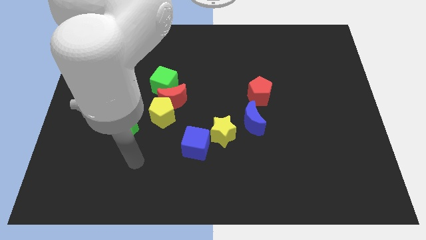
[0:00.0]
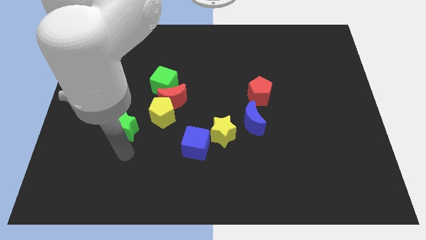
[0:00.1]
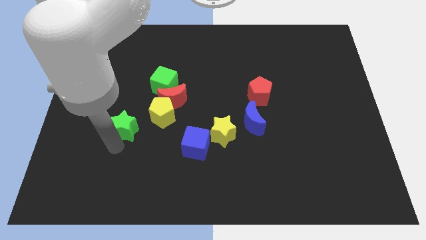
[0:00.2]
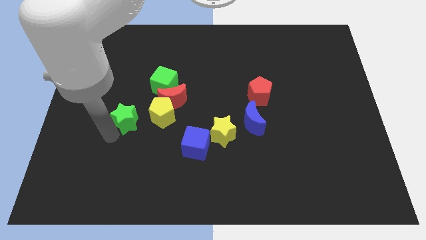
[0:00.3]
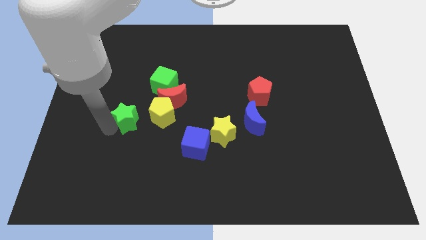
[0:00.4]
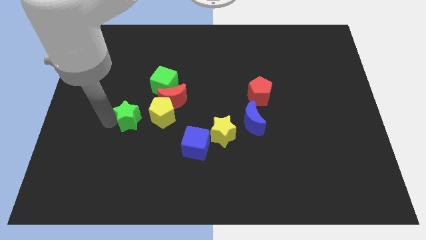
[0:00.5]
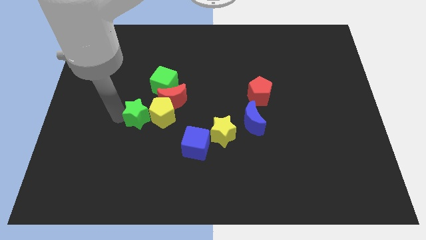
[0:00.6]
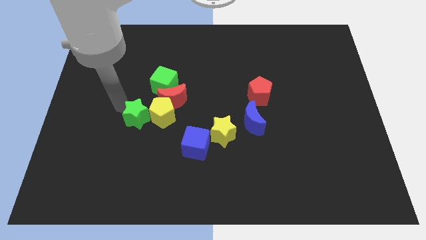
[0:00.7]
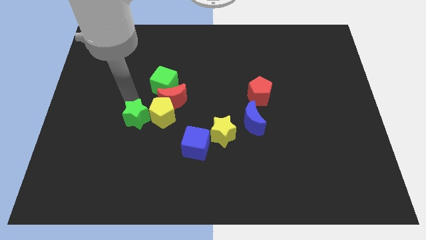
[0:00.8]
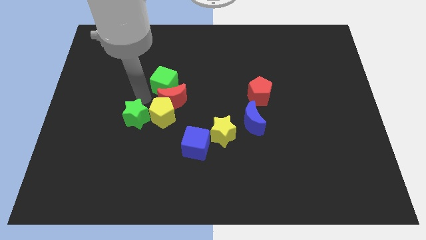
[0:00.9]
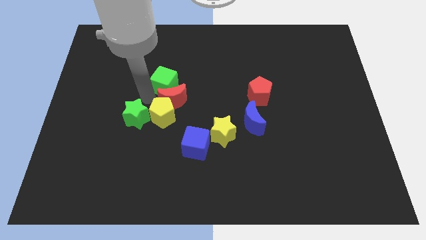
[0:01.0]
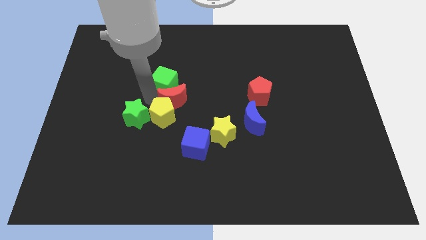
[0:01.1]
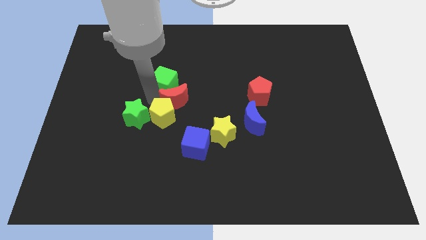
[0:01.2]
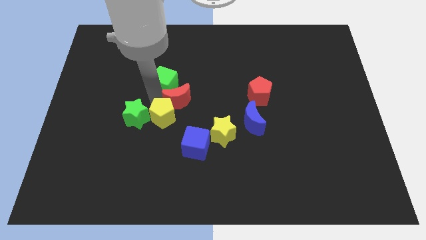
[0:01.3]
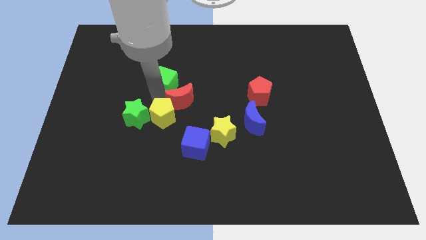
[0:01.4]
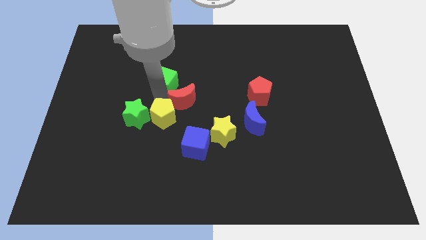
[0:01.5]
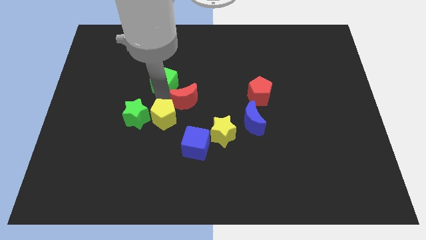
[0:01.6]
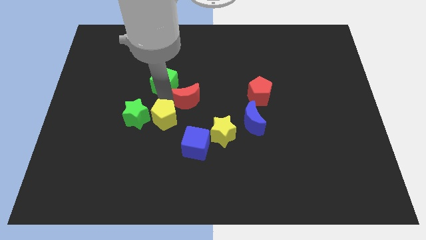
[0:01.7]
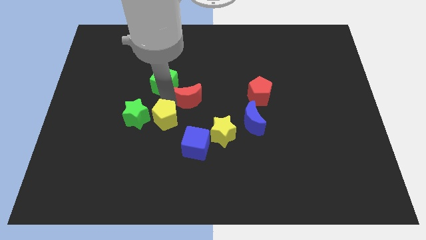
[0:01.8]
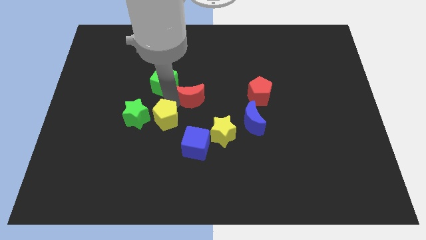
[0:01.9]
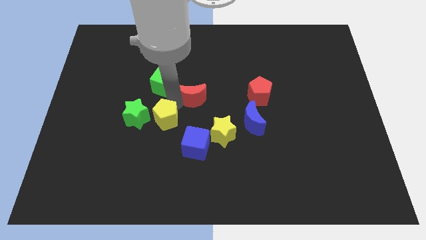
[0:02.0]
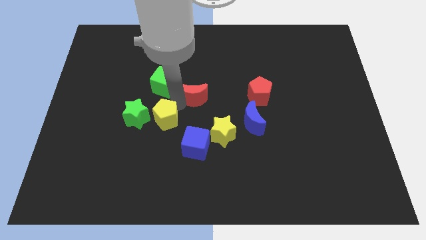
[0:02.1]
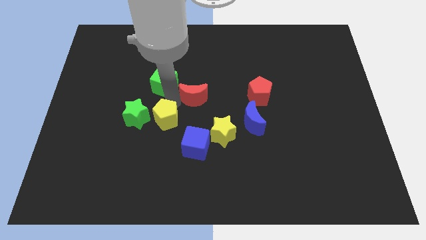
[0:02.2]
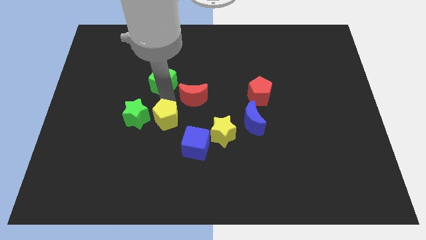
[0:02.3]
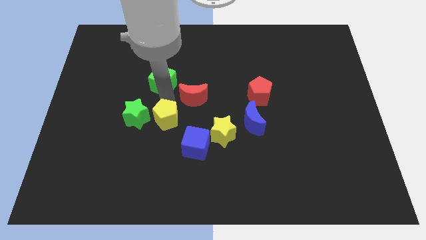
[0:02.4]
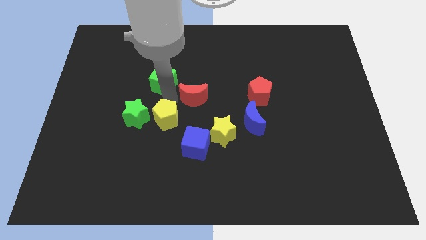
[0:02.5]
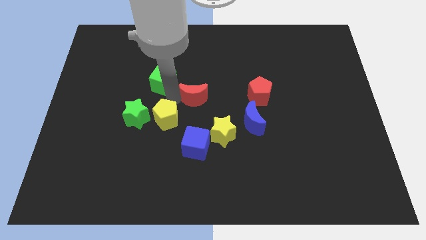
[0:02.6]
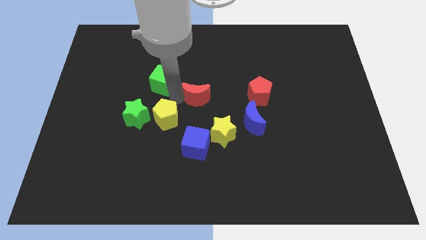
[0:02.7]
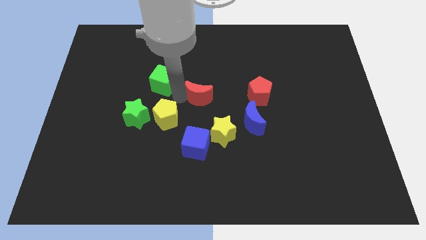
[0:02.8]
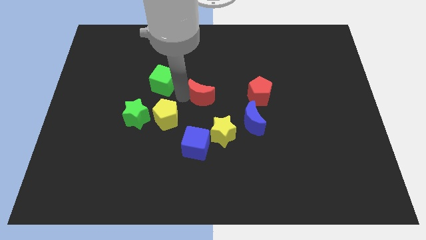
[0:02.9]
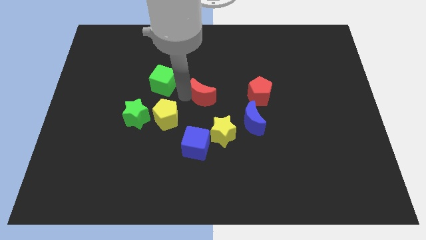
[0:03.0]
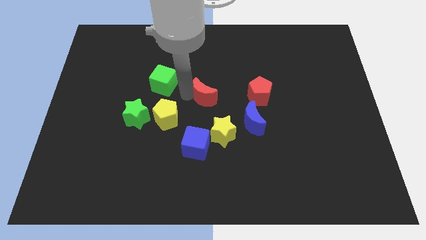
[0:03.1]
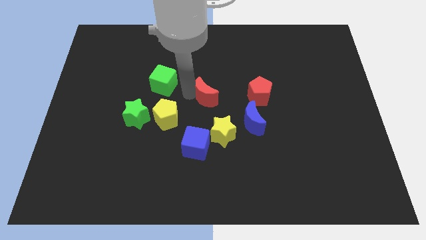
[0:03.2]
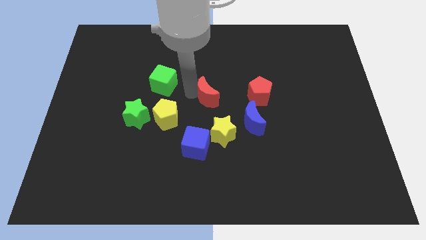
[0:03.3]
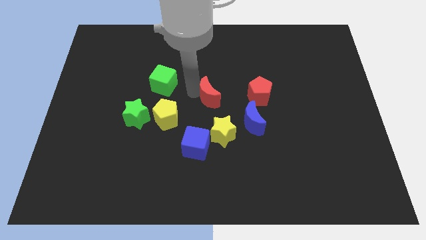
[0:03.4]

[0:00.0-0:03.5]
separate the red moon from the yellow pentagon and green cube

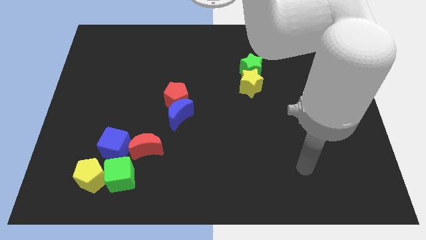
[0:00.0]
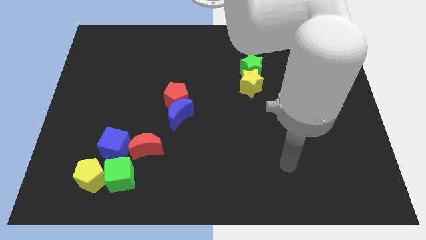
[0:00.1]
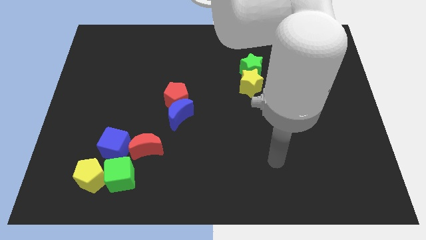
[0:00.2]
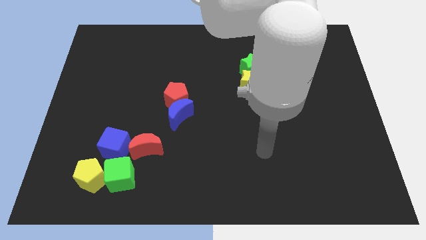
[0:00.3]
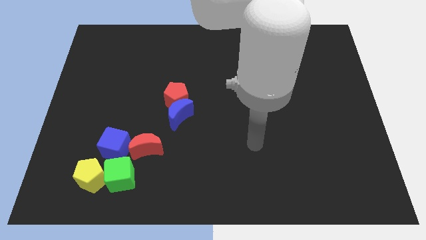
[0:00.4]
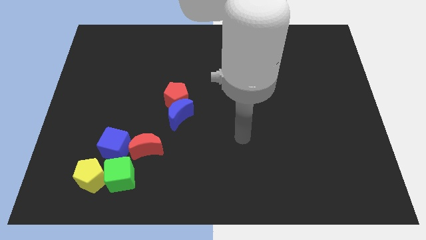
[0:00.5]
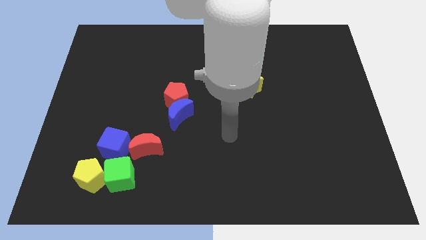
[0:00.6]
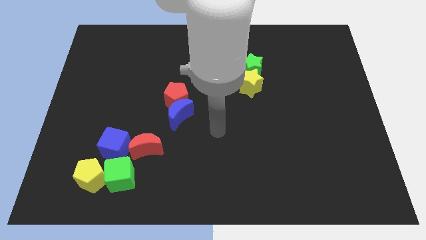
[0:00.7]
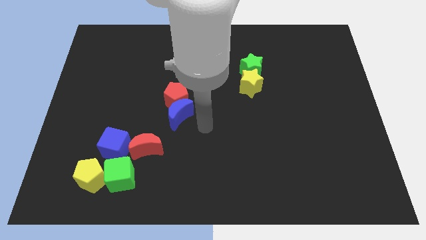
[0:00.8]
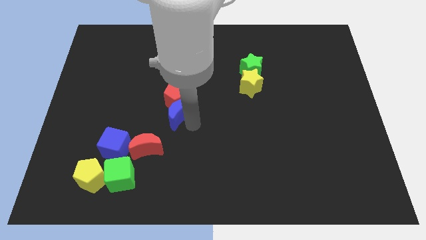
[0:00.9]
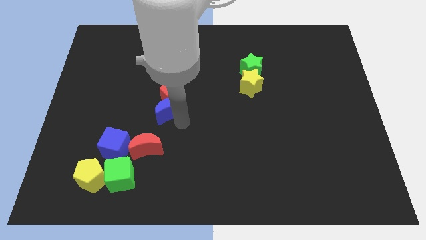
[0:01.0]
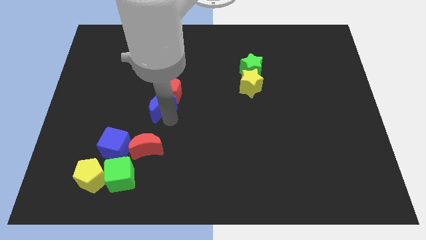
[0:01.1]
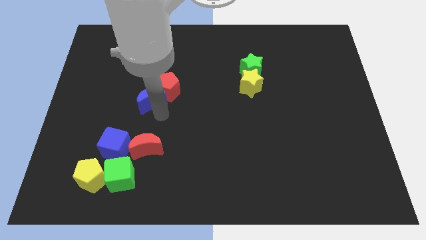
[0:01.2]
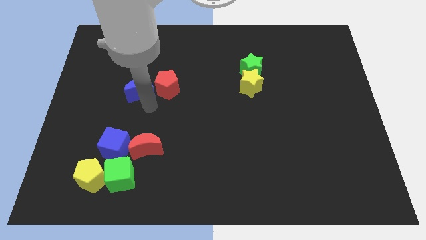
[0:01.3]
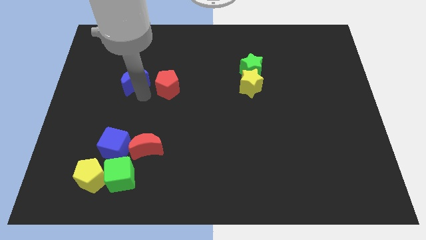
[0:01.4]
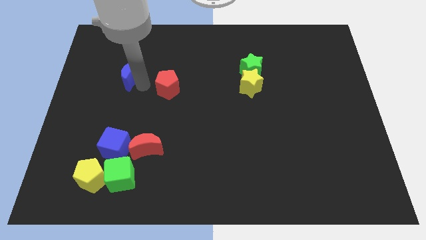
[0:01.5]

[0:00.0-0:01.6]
move the red pentagon away from the blue moon

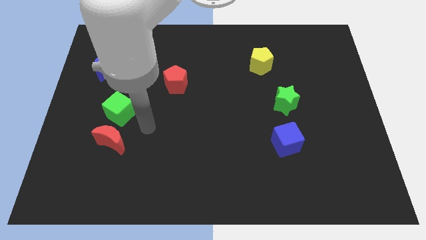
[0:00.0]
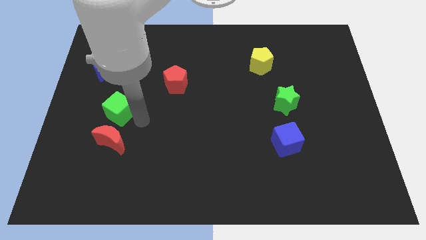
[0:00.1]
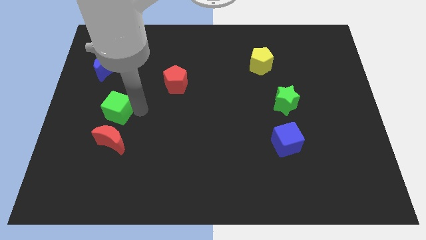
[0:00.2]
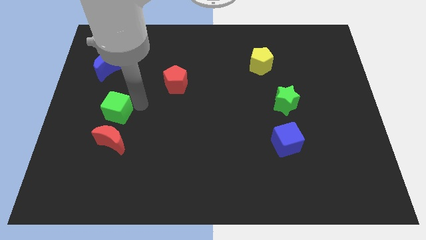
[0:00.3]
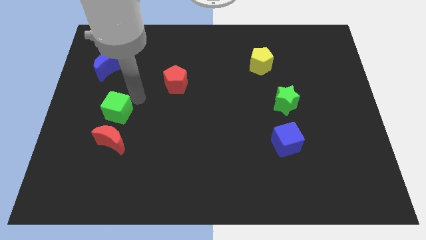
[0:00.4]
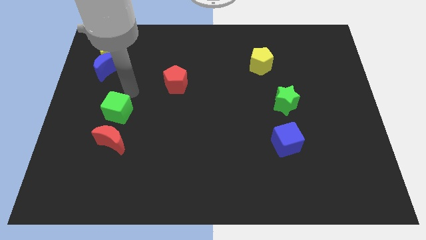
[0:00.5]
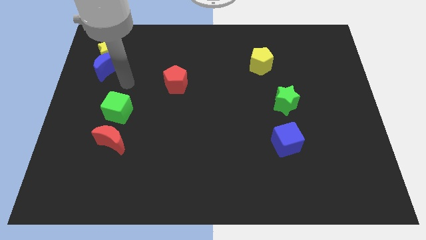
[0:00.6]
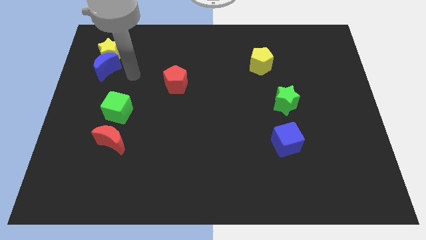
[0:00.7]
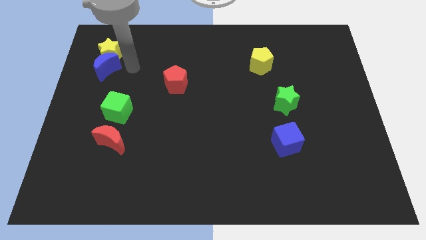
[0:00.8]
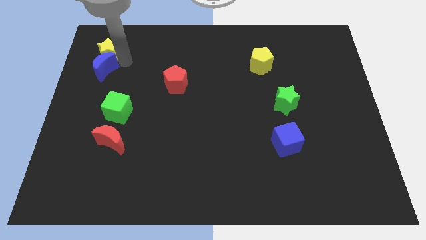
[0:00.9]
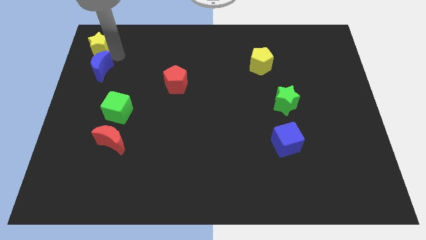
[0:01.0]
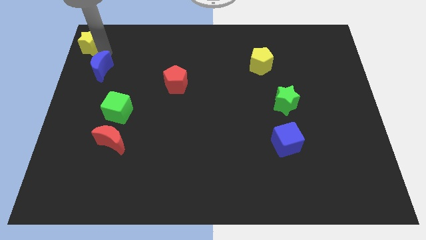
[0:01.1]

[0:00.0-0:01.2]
pull the blue moon apart from the yellow star

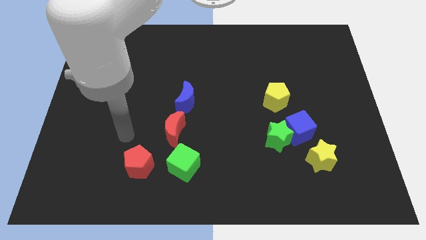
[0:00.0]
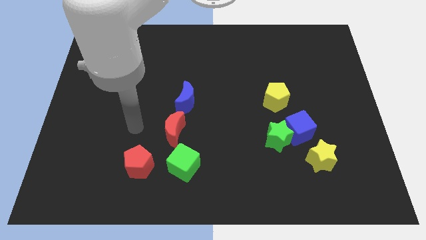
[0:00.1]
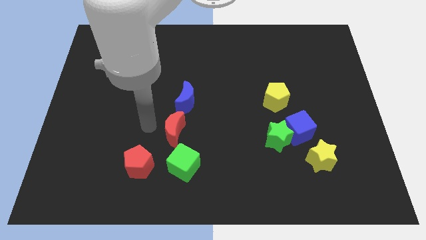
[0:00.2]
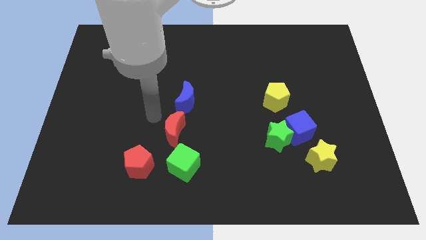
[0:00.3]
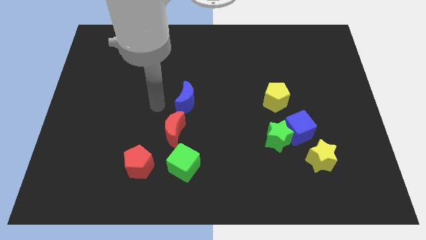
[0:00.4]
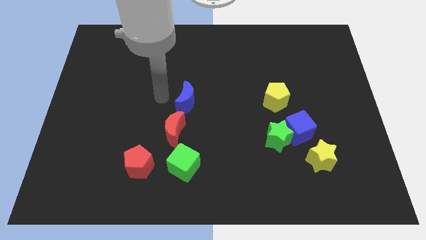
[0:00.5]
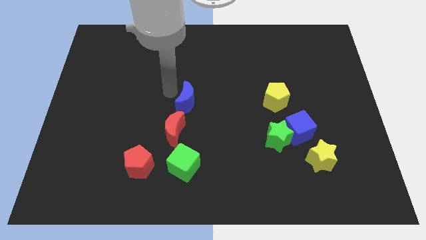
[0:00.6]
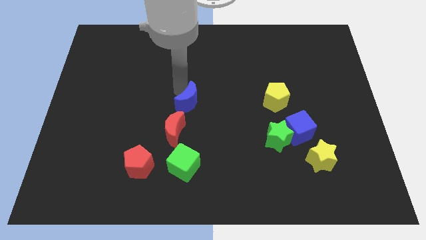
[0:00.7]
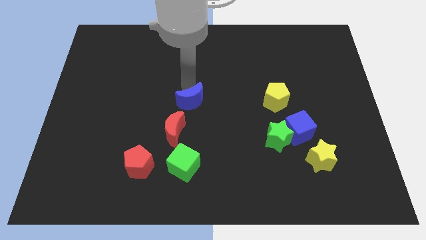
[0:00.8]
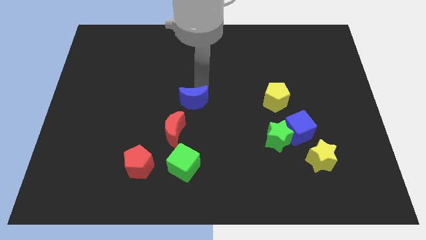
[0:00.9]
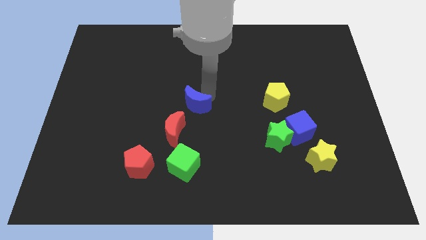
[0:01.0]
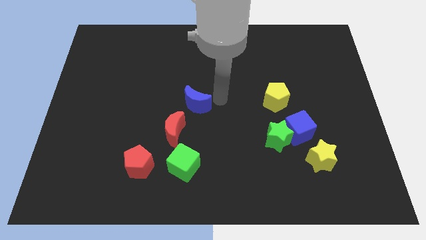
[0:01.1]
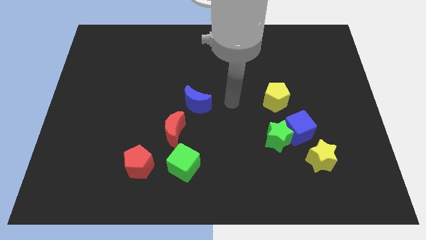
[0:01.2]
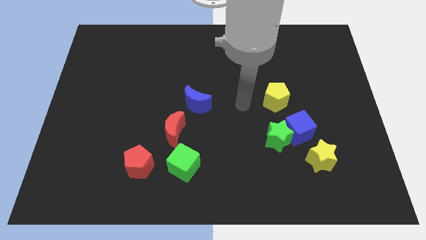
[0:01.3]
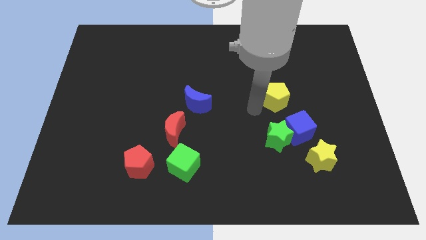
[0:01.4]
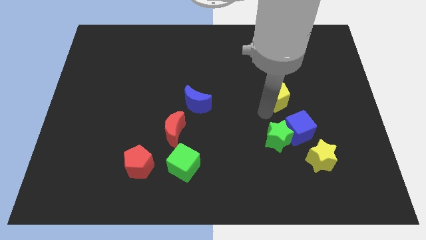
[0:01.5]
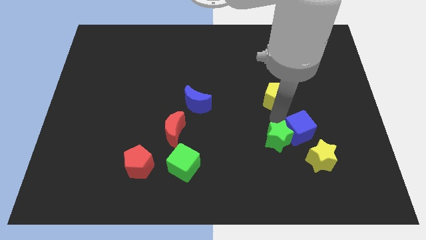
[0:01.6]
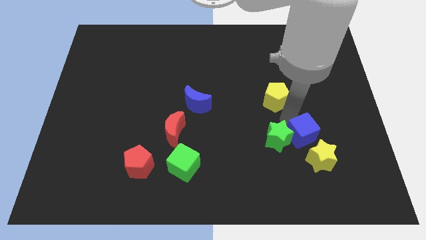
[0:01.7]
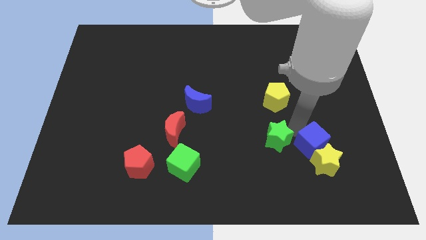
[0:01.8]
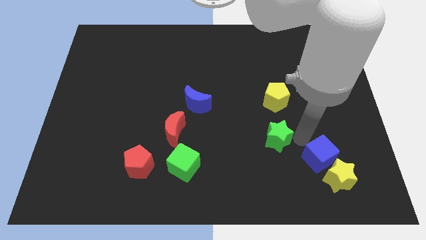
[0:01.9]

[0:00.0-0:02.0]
move the green star away from the blue cube and yellow star

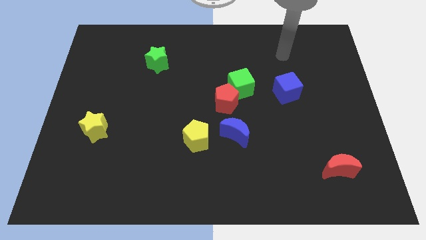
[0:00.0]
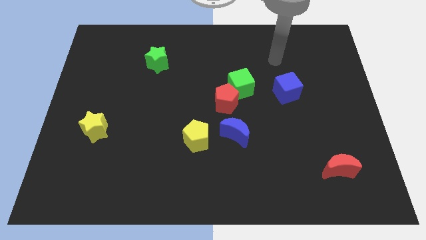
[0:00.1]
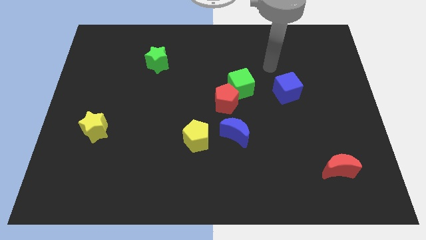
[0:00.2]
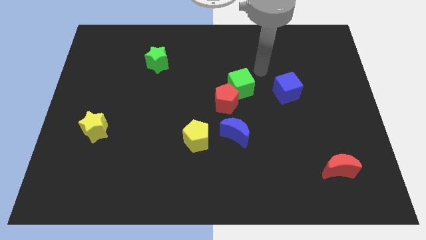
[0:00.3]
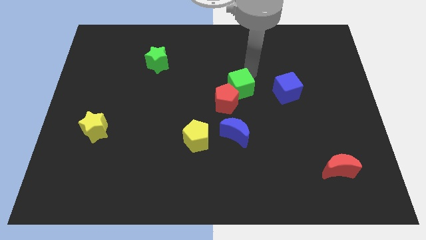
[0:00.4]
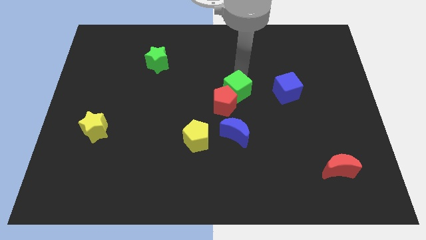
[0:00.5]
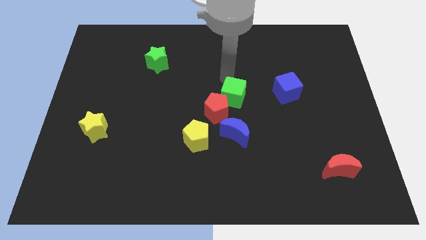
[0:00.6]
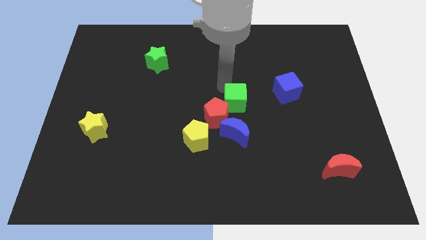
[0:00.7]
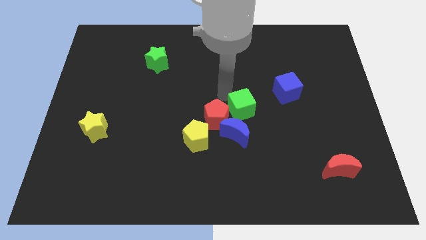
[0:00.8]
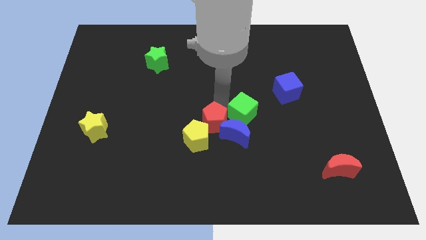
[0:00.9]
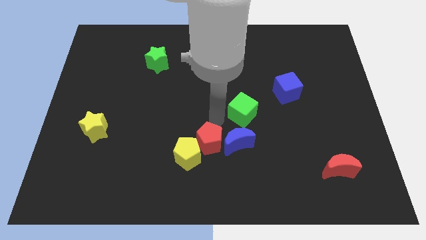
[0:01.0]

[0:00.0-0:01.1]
move the green cube away from the red pentagon
